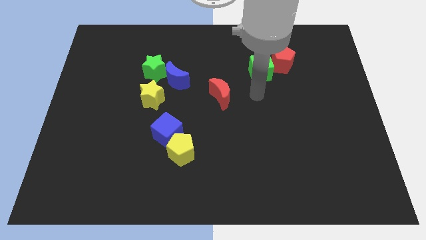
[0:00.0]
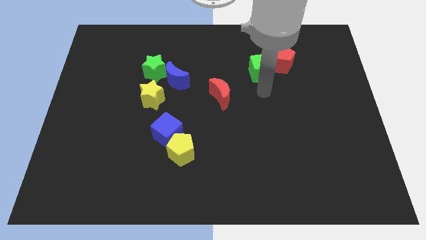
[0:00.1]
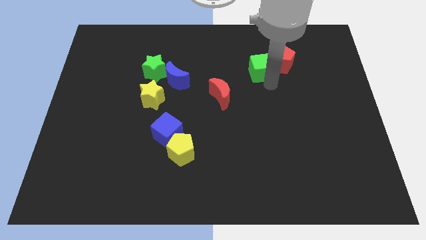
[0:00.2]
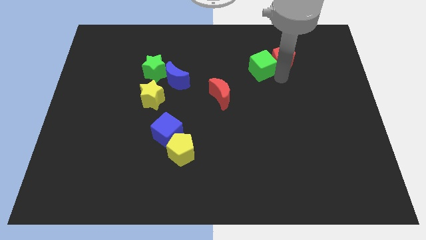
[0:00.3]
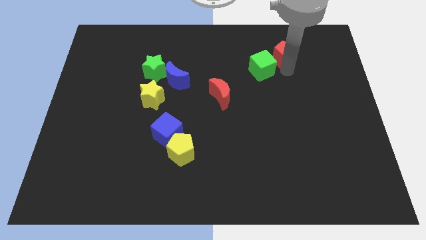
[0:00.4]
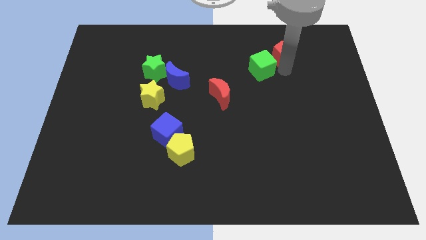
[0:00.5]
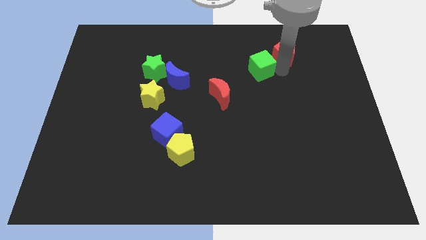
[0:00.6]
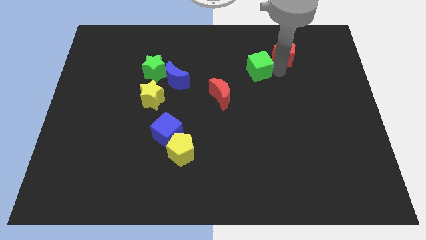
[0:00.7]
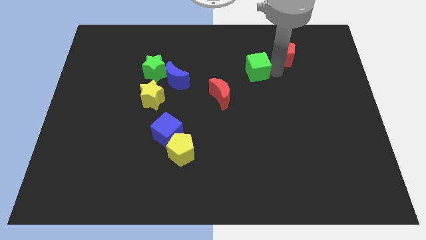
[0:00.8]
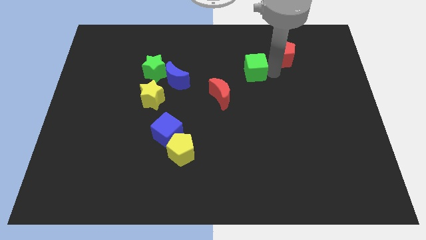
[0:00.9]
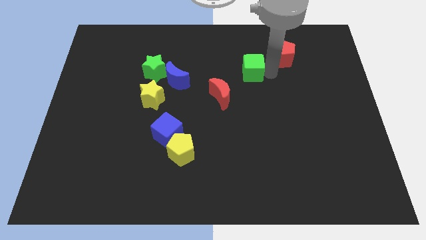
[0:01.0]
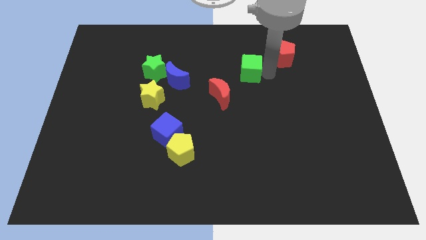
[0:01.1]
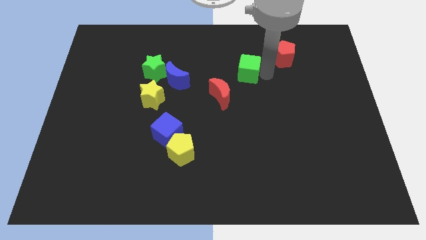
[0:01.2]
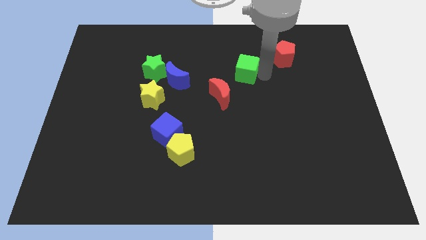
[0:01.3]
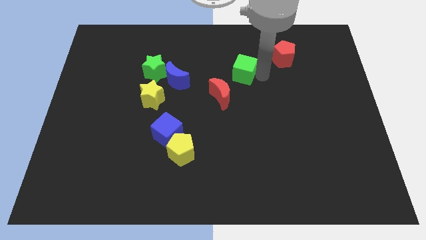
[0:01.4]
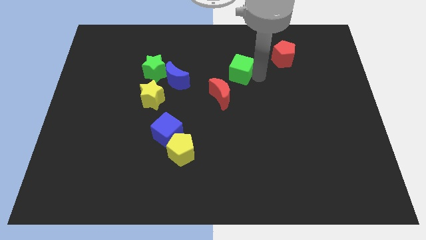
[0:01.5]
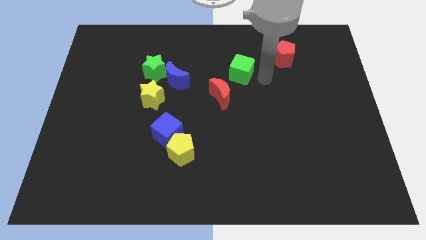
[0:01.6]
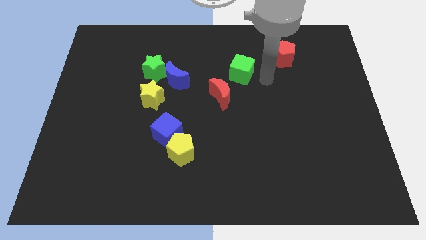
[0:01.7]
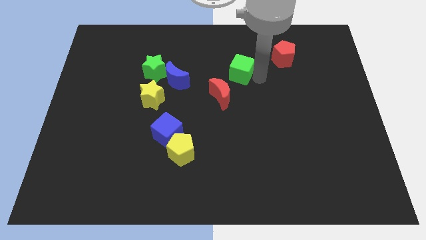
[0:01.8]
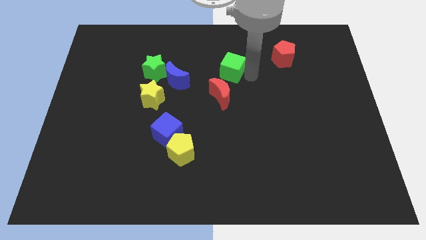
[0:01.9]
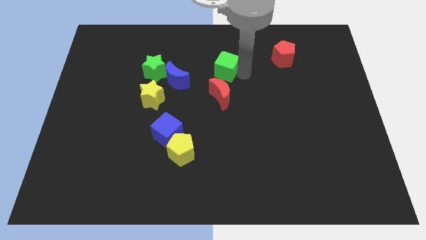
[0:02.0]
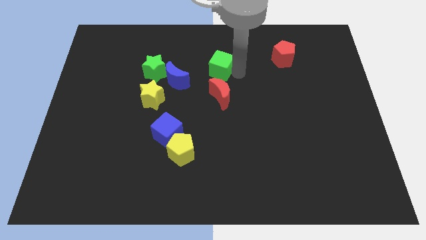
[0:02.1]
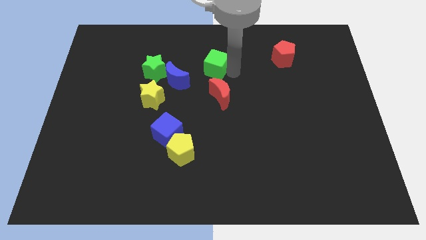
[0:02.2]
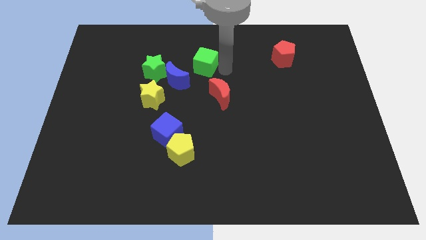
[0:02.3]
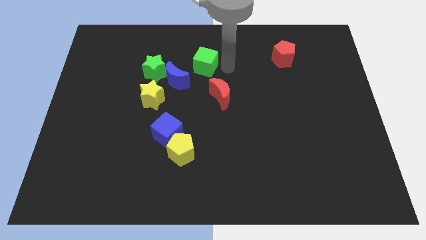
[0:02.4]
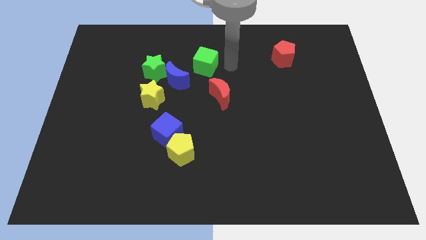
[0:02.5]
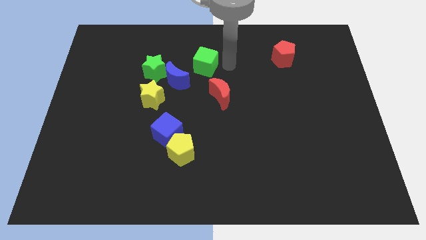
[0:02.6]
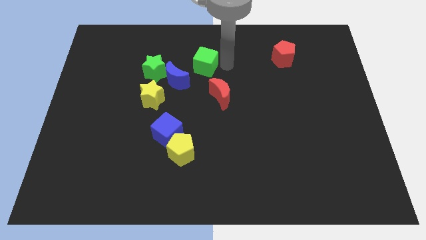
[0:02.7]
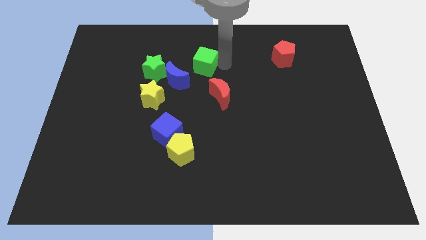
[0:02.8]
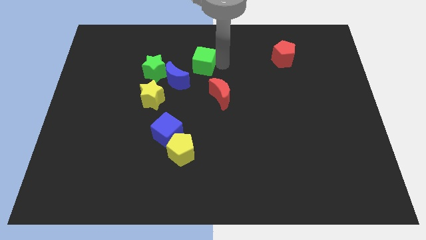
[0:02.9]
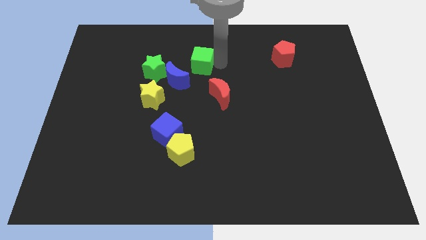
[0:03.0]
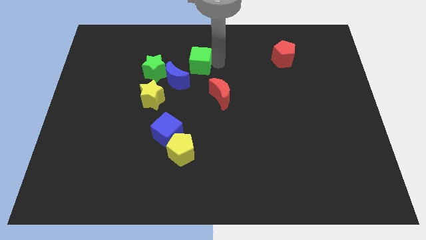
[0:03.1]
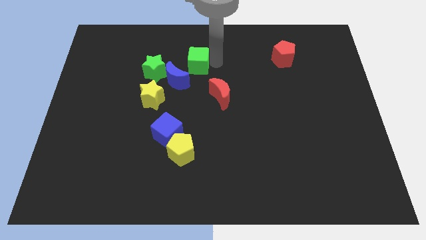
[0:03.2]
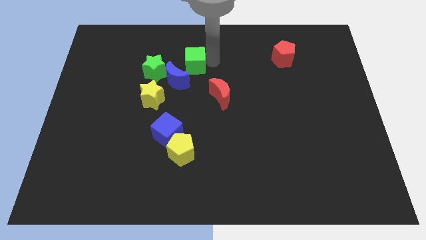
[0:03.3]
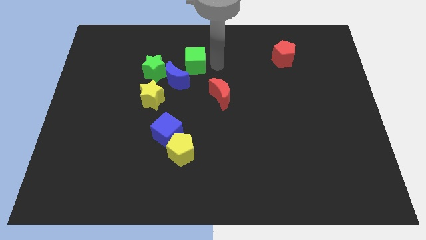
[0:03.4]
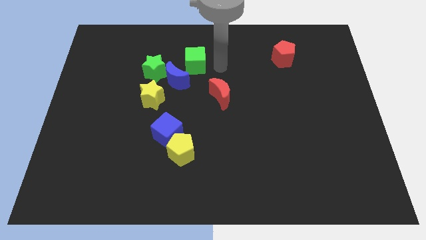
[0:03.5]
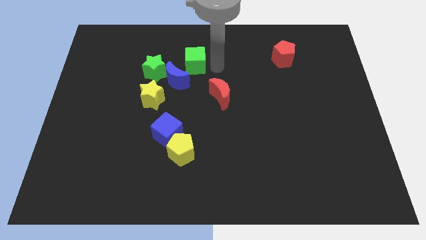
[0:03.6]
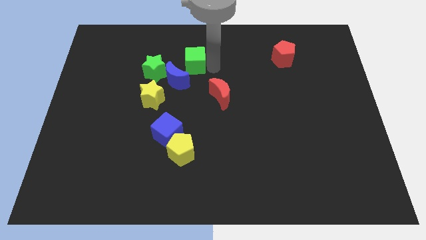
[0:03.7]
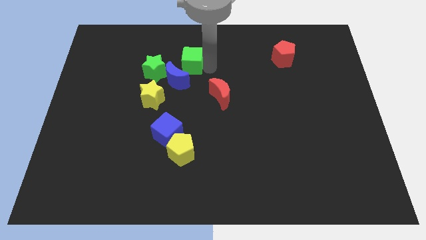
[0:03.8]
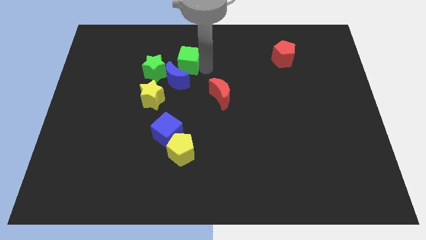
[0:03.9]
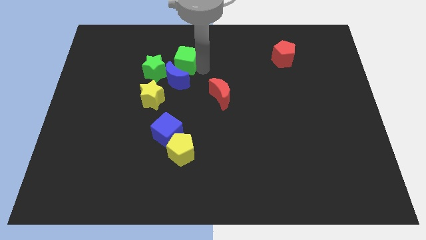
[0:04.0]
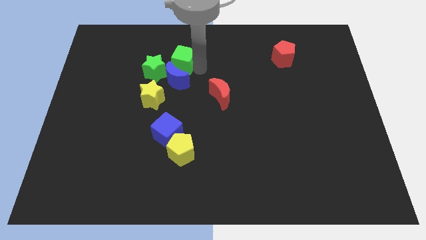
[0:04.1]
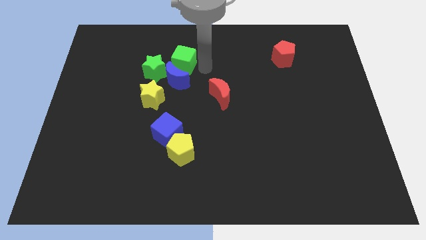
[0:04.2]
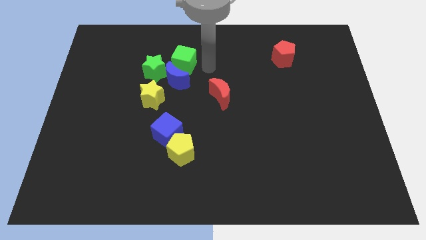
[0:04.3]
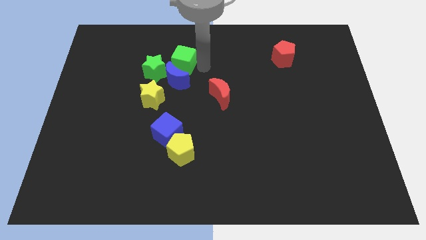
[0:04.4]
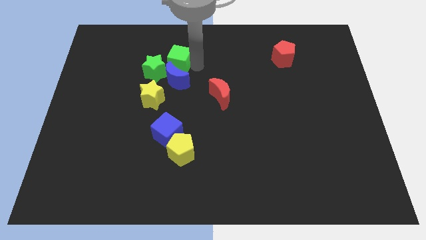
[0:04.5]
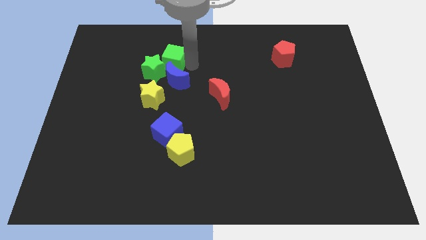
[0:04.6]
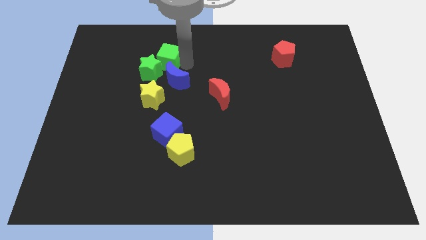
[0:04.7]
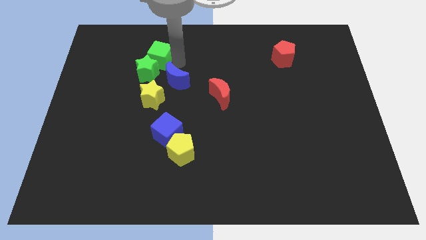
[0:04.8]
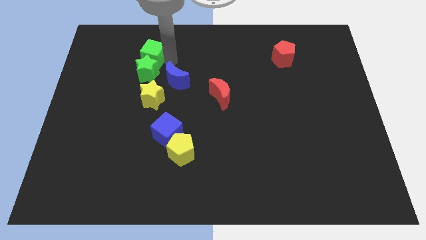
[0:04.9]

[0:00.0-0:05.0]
move the green cube to the top left side of the green star

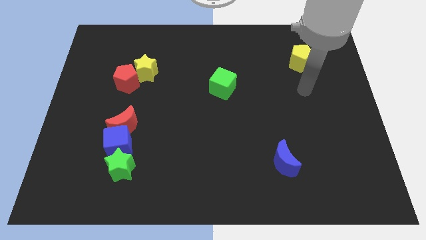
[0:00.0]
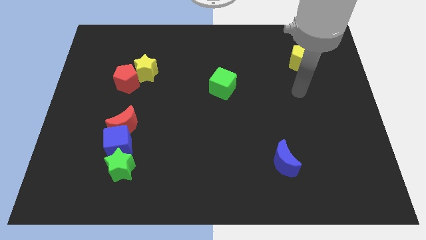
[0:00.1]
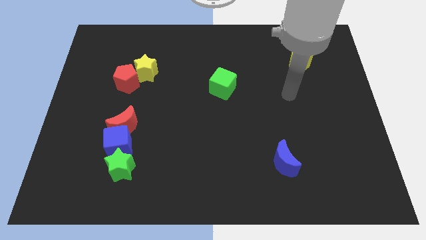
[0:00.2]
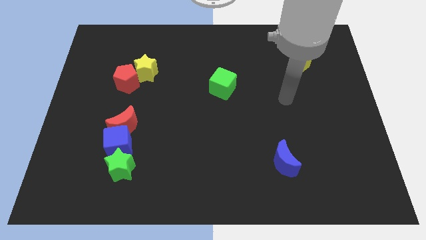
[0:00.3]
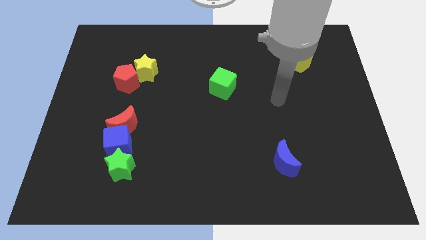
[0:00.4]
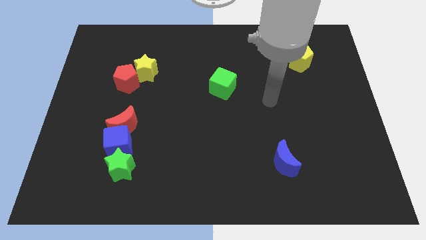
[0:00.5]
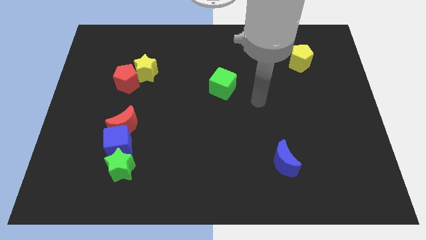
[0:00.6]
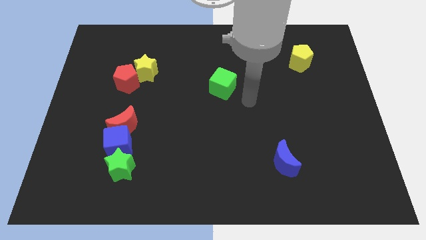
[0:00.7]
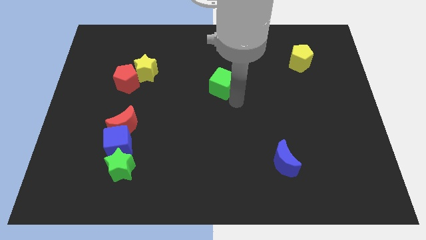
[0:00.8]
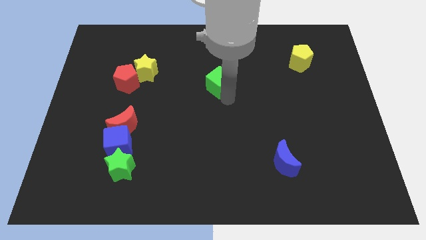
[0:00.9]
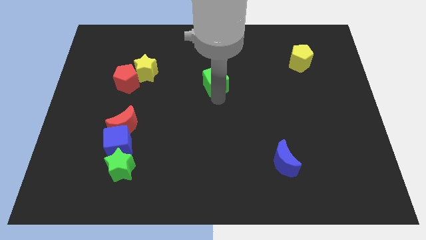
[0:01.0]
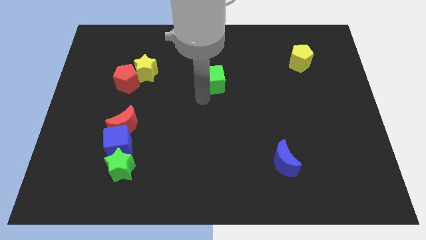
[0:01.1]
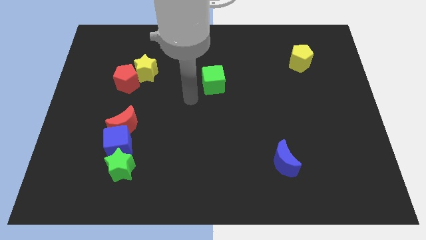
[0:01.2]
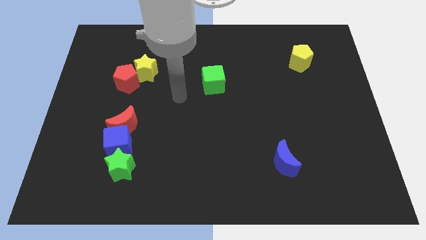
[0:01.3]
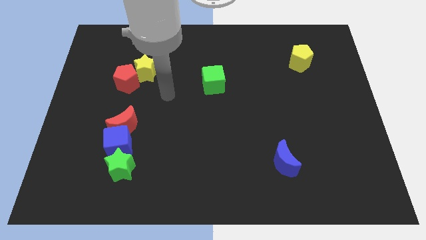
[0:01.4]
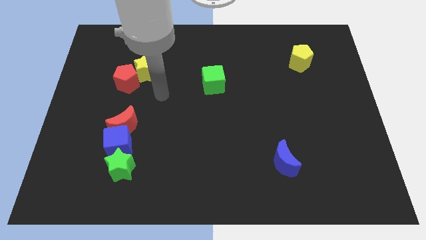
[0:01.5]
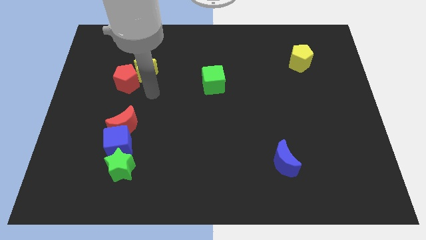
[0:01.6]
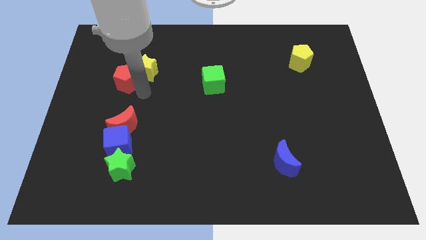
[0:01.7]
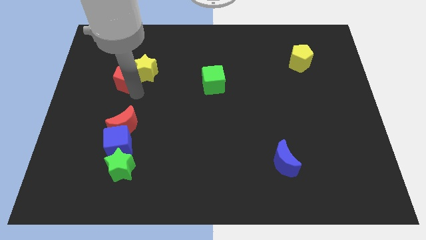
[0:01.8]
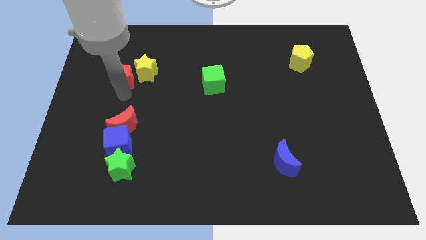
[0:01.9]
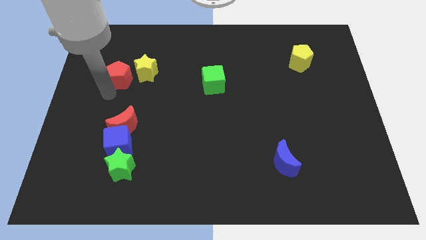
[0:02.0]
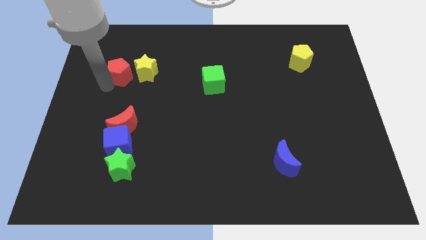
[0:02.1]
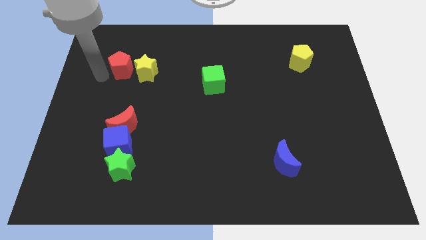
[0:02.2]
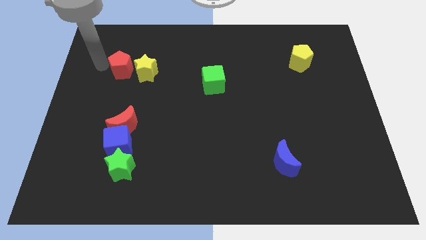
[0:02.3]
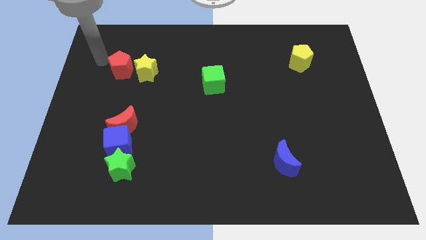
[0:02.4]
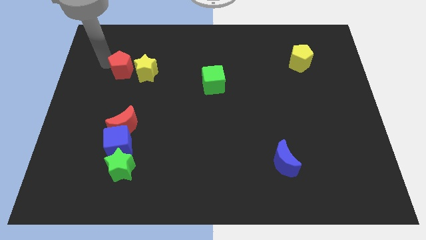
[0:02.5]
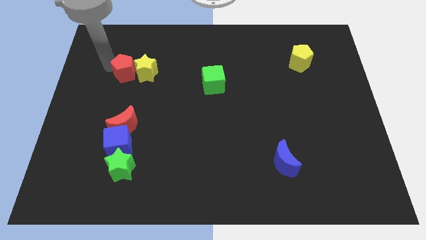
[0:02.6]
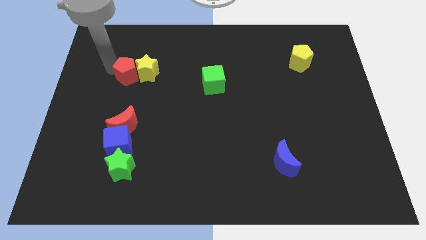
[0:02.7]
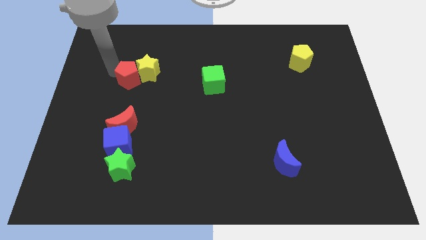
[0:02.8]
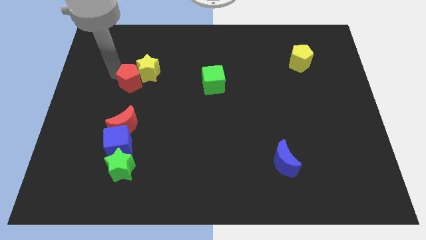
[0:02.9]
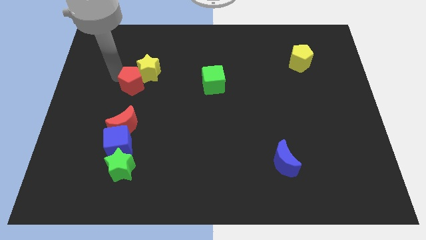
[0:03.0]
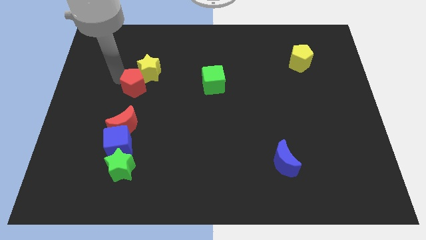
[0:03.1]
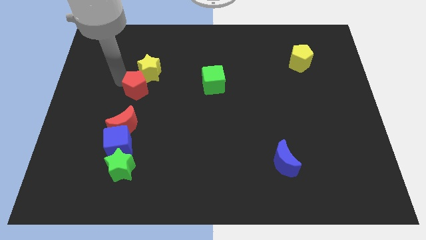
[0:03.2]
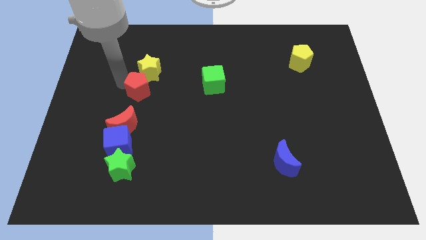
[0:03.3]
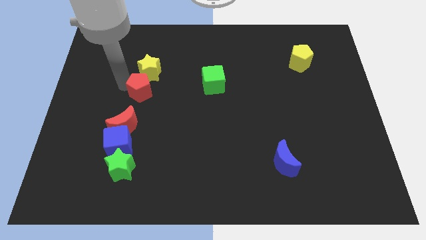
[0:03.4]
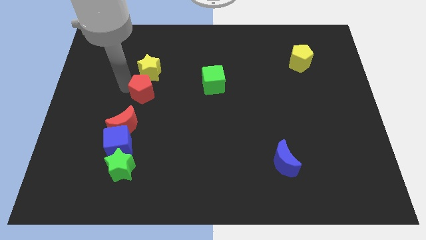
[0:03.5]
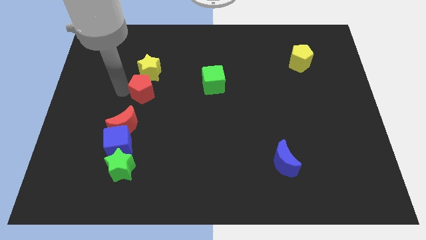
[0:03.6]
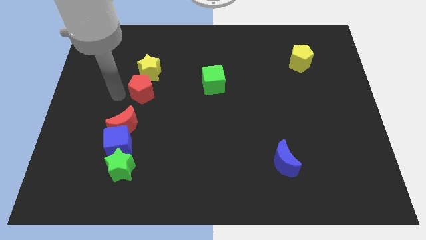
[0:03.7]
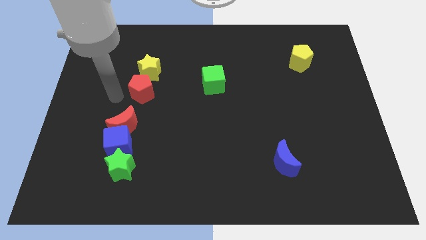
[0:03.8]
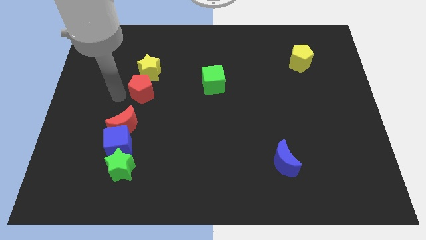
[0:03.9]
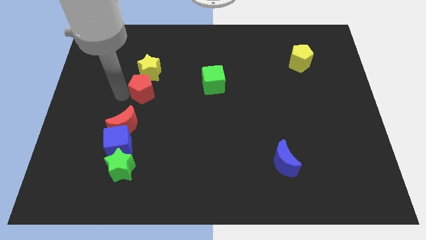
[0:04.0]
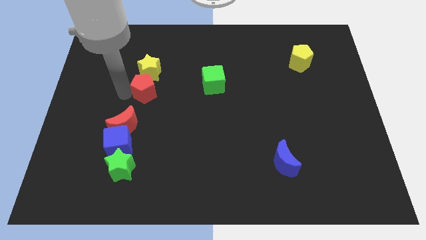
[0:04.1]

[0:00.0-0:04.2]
put the red pentagon to the bottom right of the yellow star
